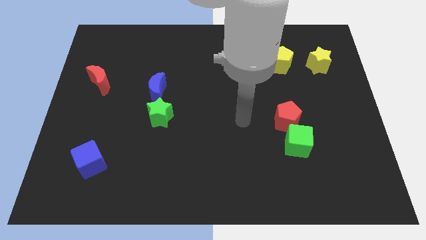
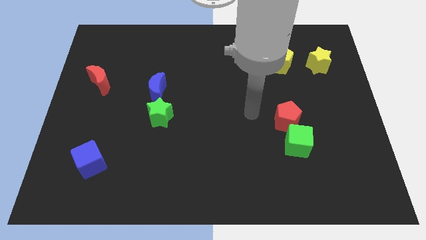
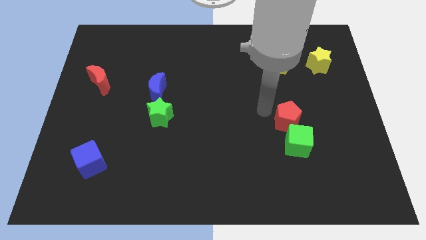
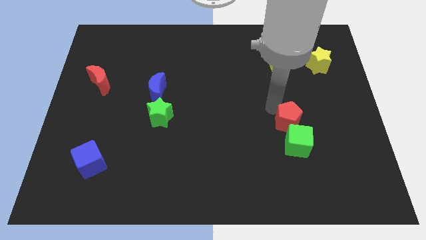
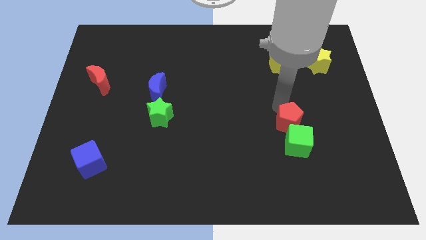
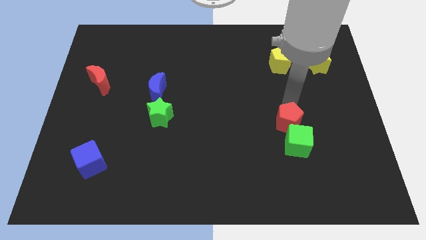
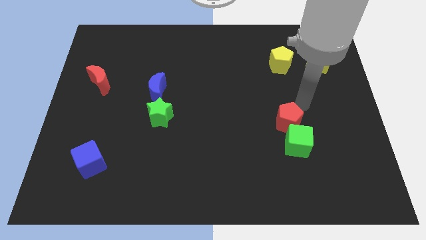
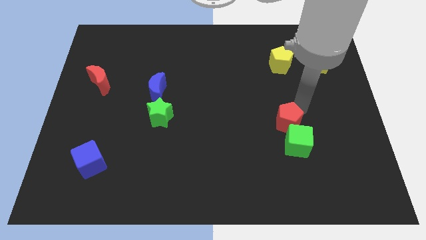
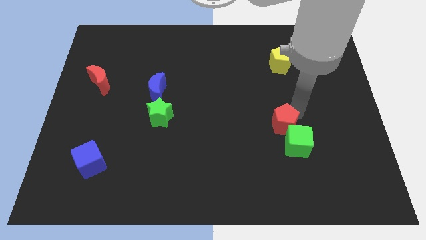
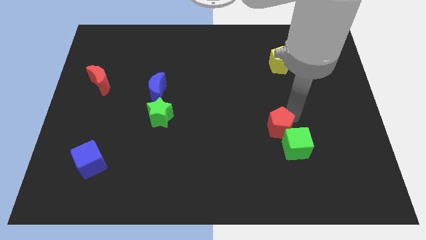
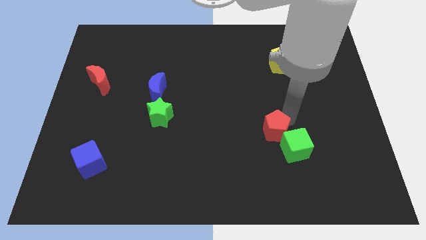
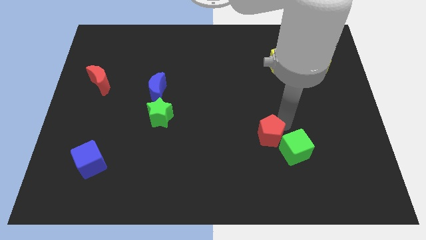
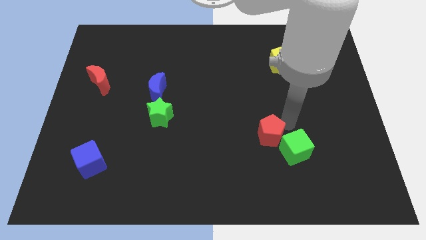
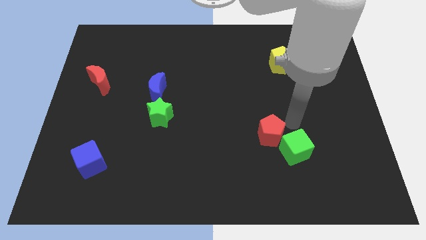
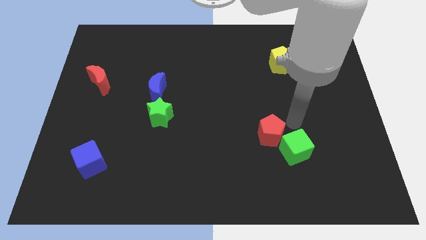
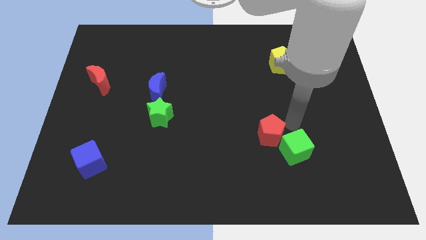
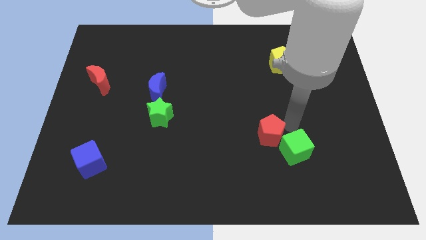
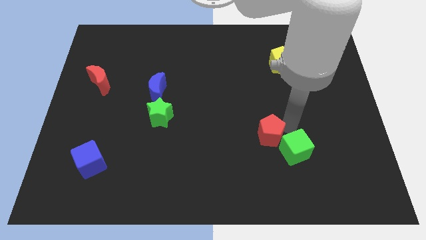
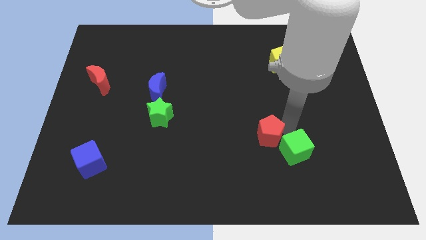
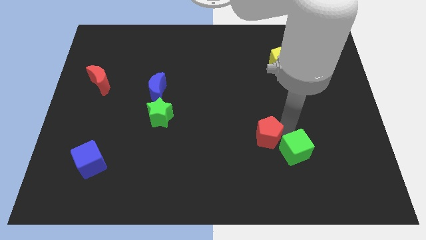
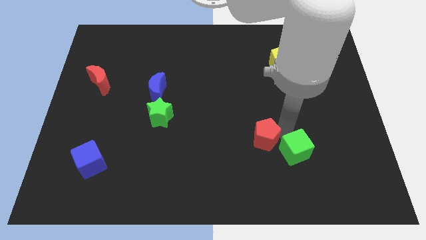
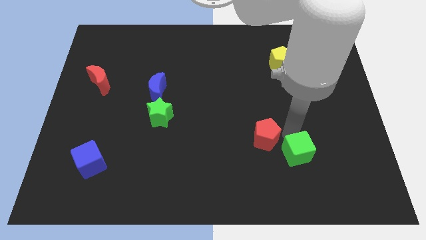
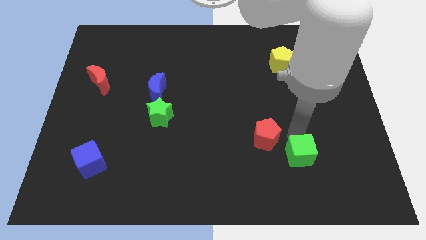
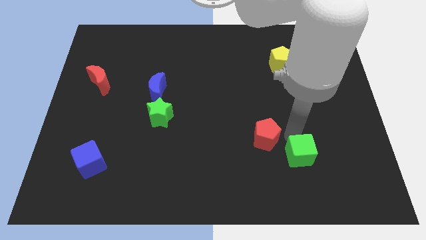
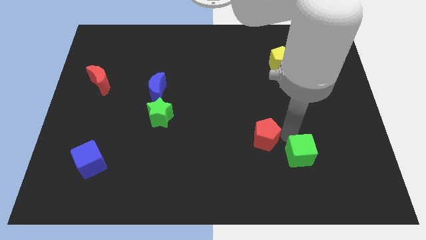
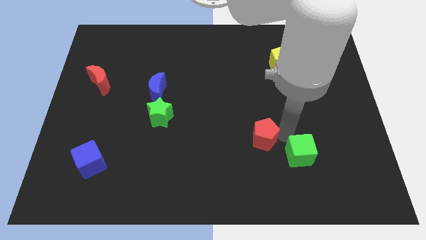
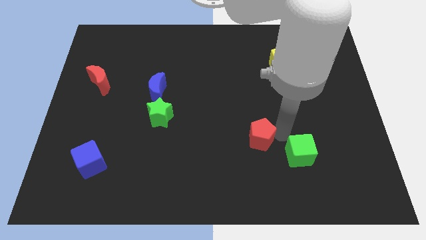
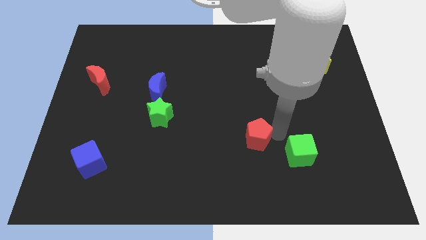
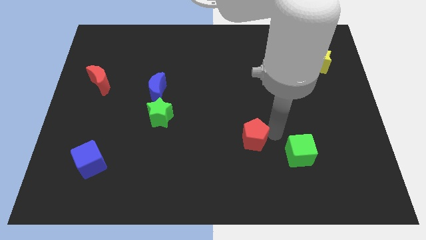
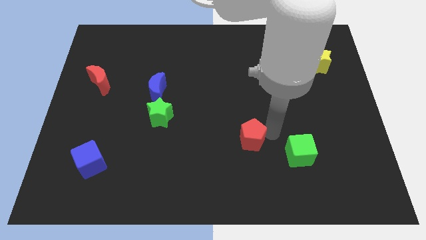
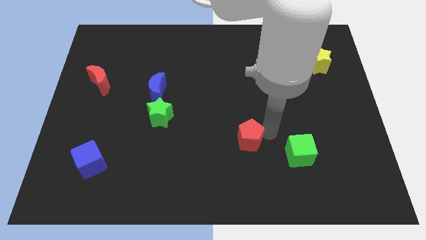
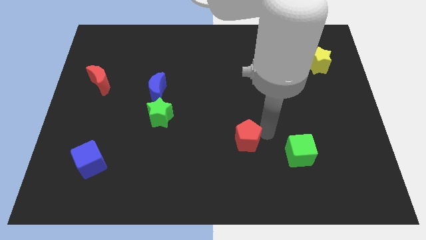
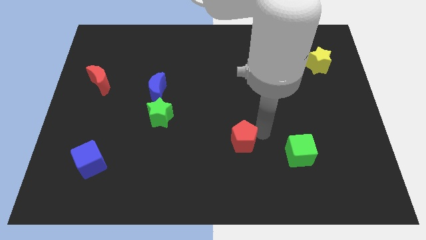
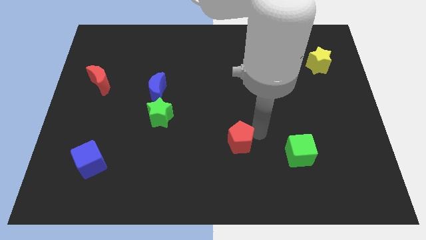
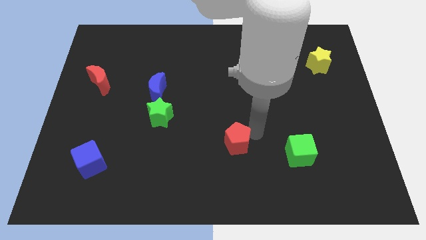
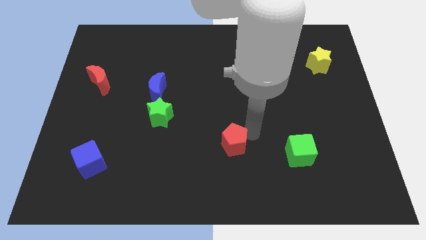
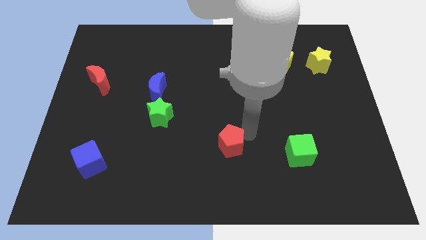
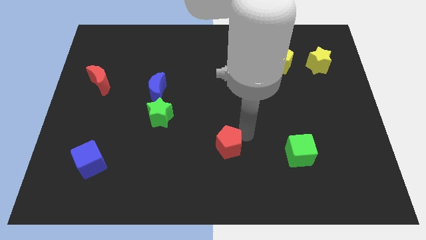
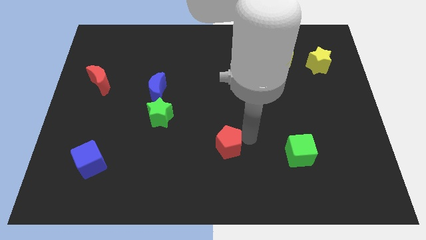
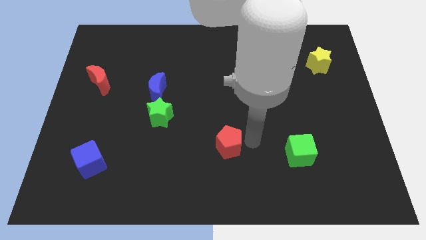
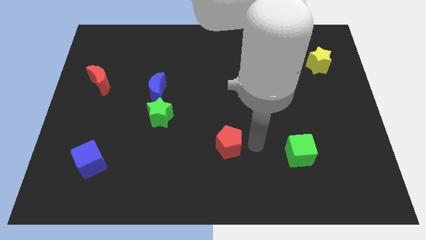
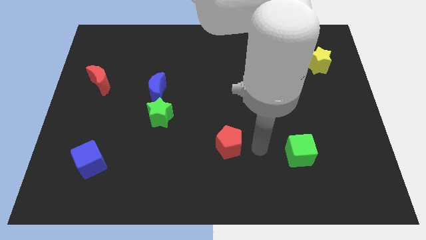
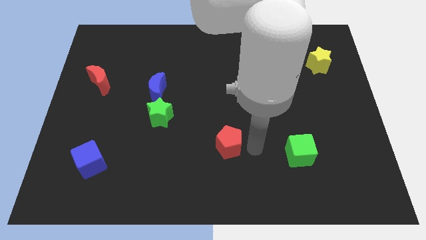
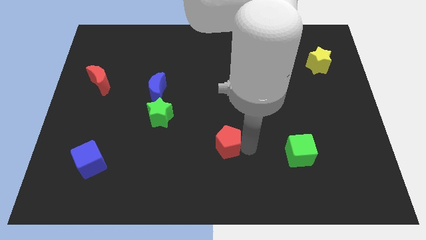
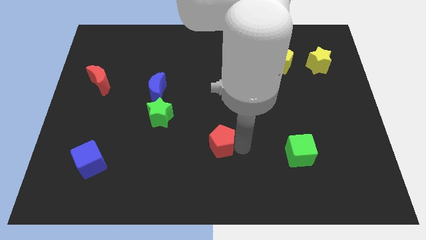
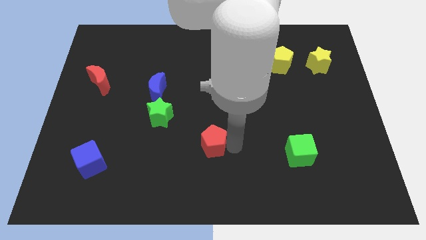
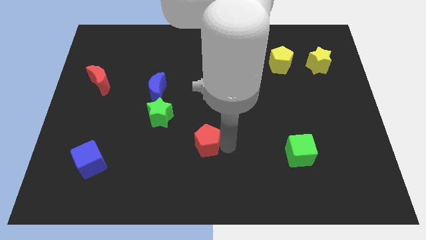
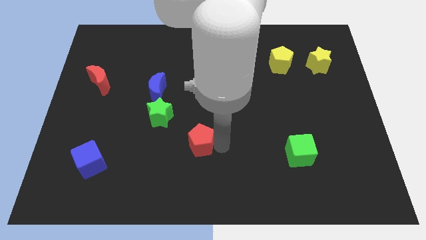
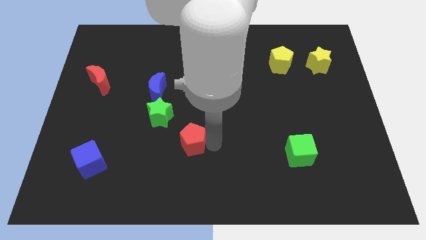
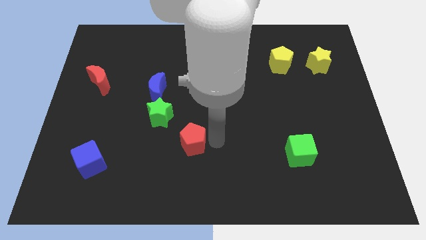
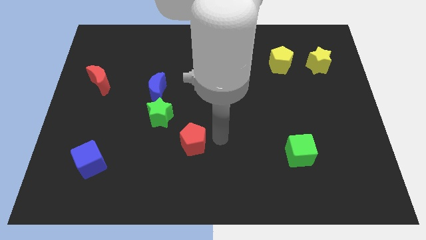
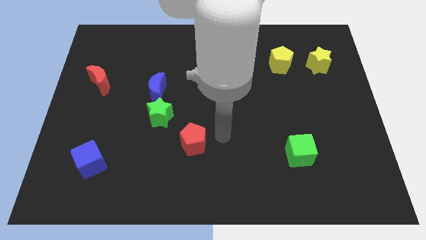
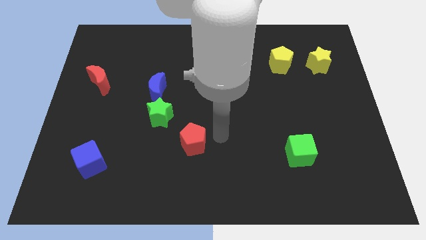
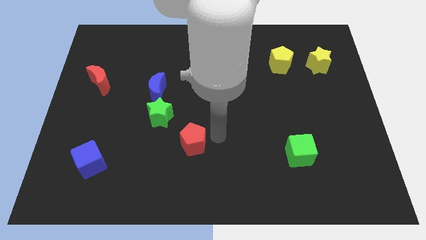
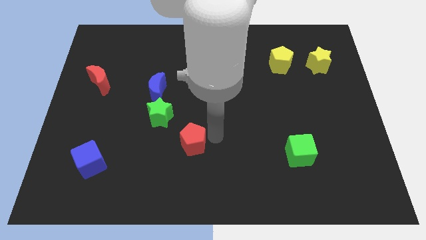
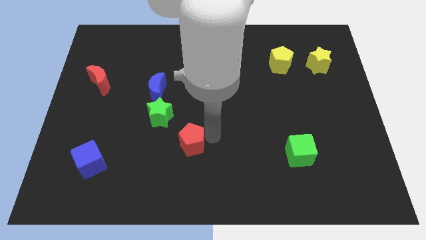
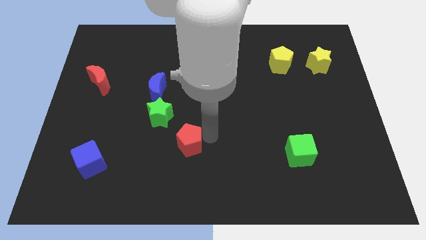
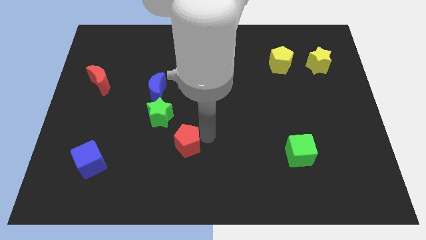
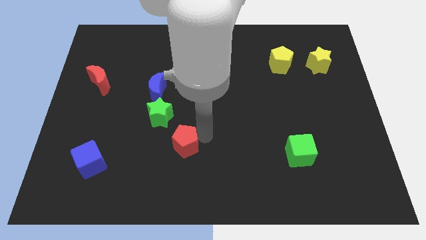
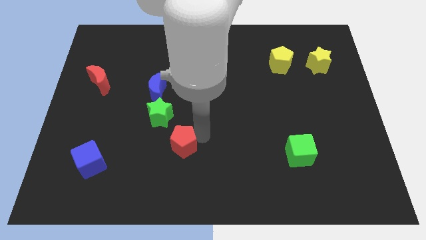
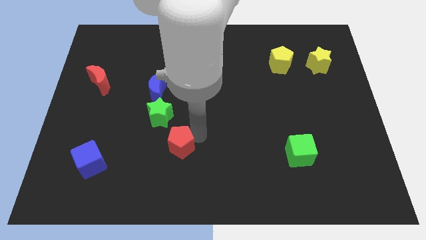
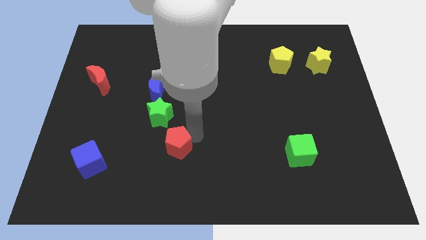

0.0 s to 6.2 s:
slide the red pentagon to the bottom side of the green star
